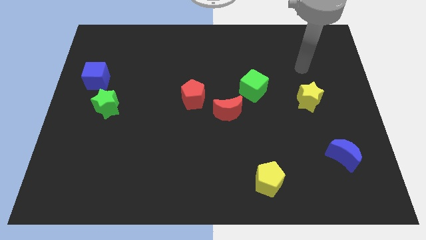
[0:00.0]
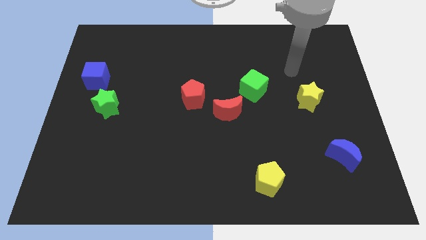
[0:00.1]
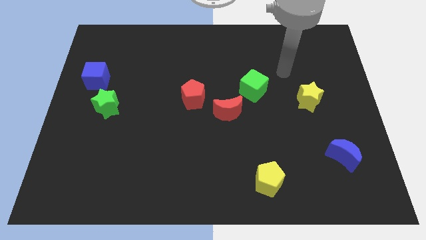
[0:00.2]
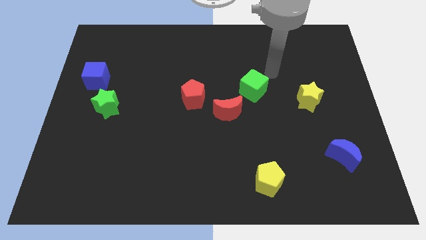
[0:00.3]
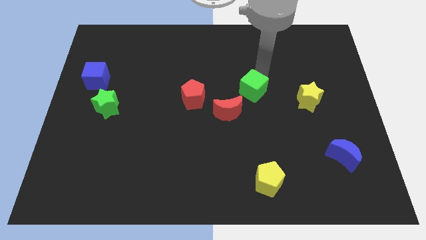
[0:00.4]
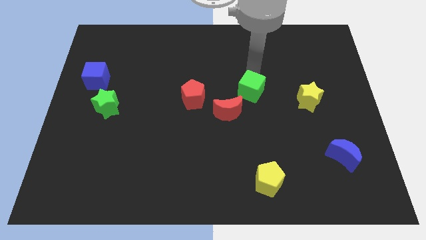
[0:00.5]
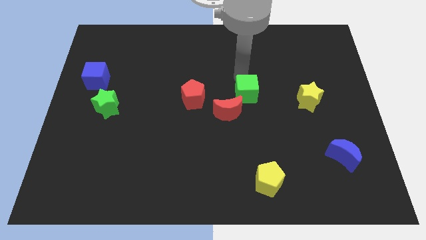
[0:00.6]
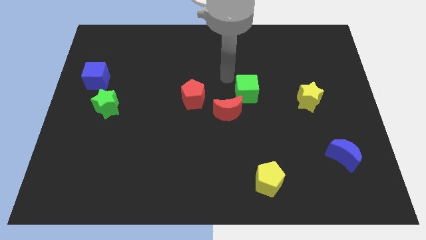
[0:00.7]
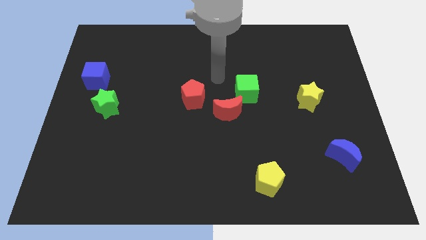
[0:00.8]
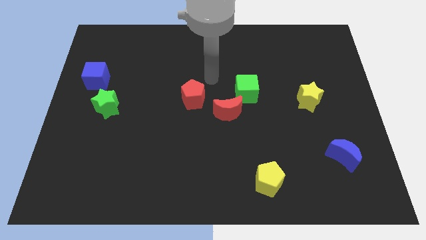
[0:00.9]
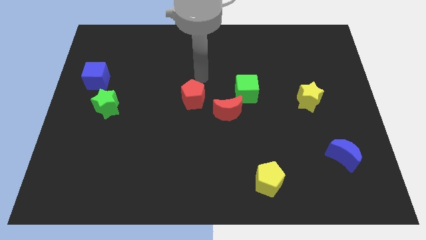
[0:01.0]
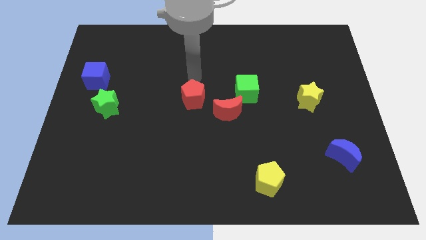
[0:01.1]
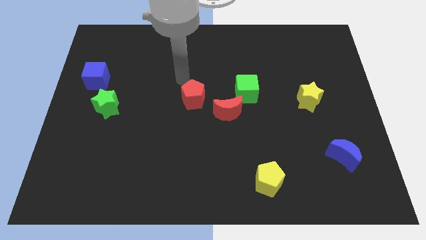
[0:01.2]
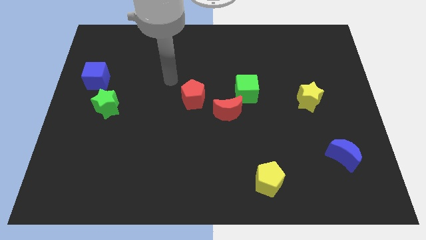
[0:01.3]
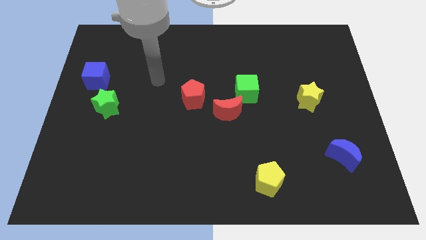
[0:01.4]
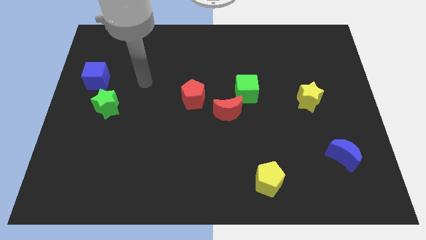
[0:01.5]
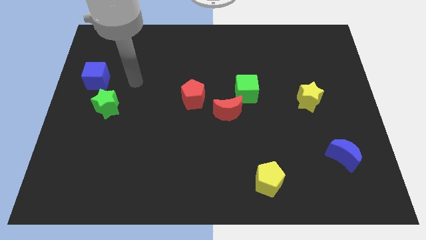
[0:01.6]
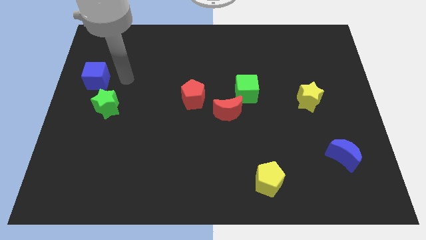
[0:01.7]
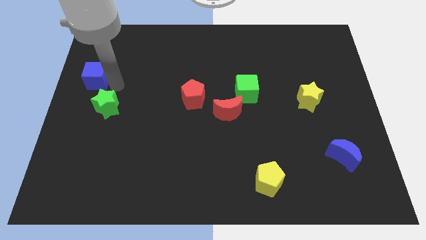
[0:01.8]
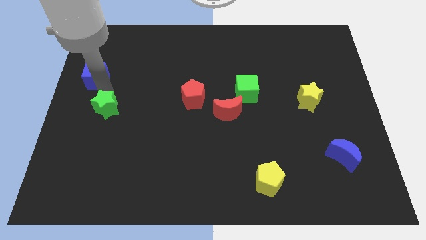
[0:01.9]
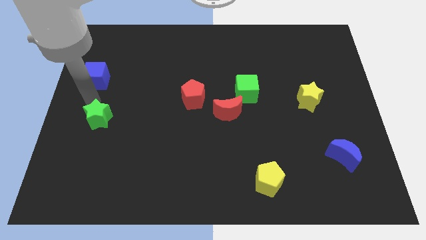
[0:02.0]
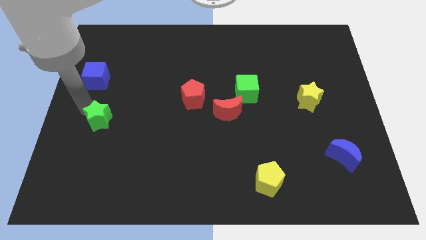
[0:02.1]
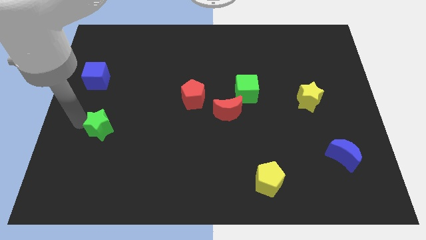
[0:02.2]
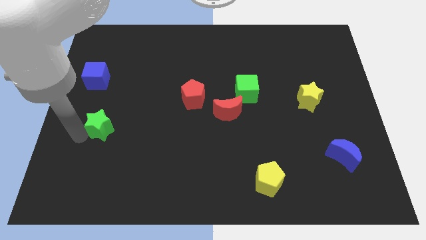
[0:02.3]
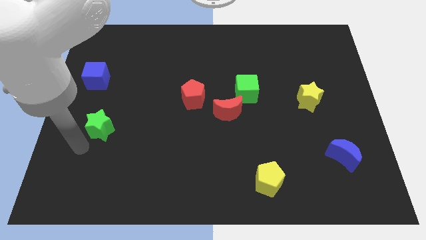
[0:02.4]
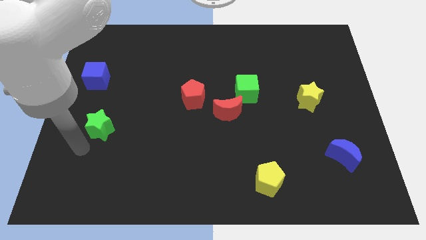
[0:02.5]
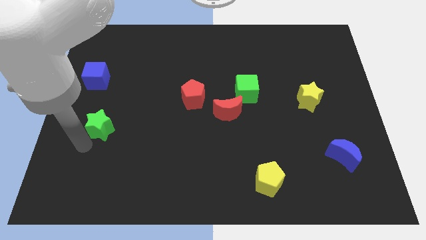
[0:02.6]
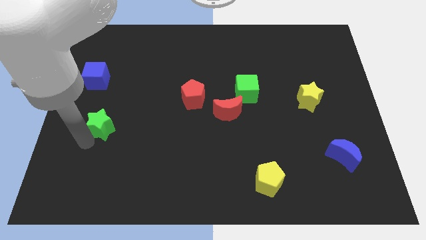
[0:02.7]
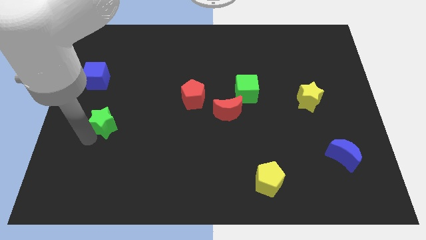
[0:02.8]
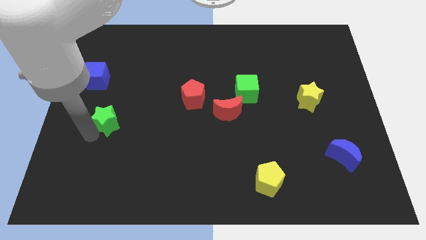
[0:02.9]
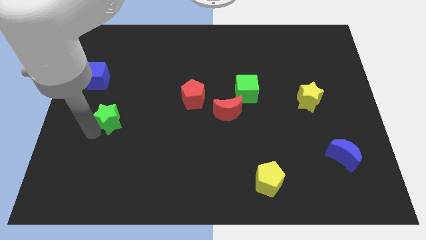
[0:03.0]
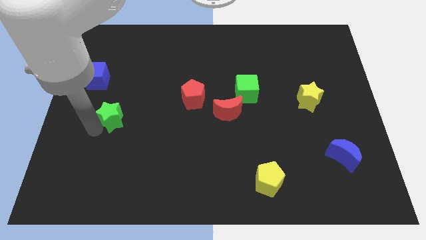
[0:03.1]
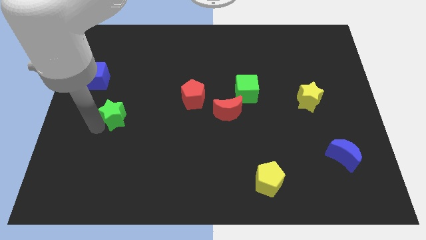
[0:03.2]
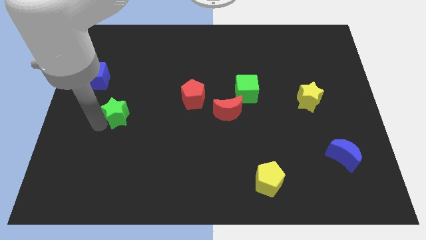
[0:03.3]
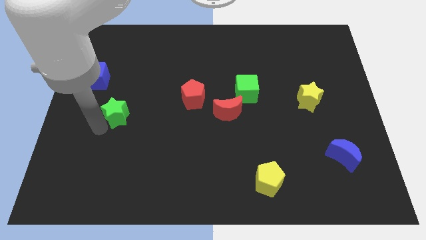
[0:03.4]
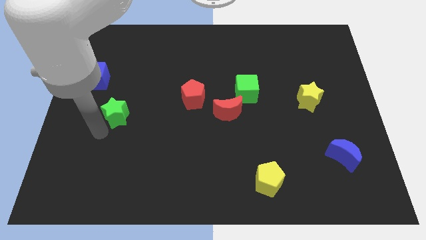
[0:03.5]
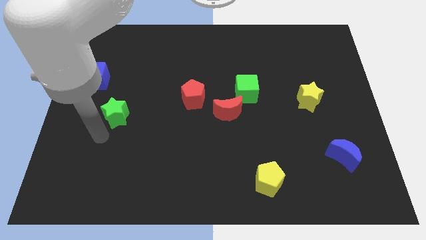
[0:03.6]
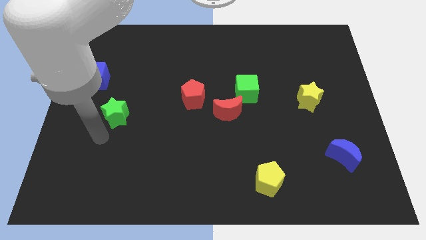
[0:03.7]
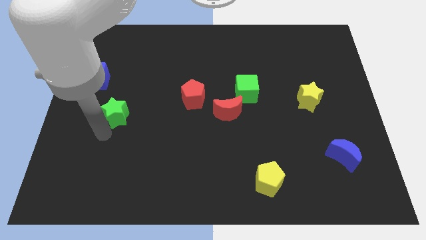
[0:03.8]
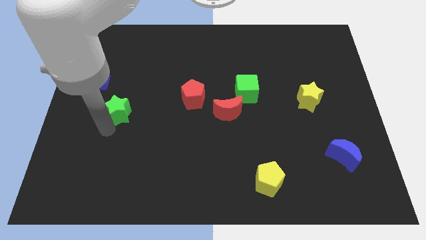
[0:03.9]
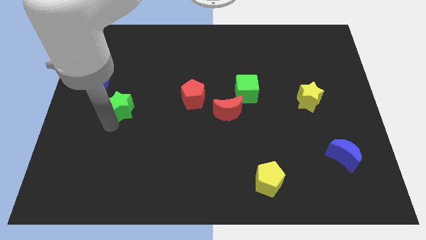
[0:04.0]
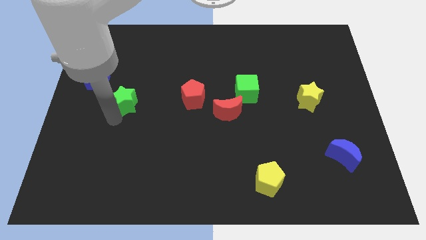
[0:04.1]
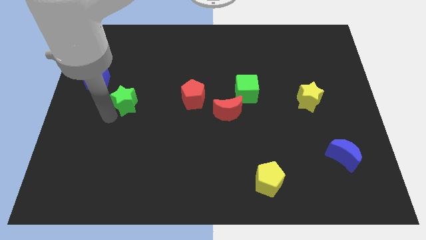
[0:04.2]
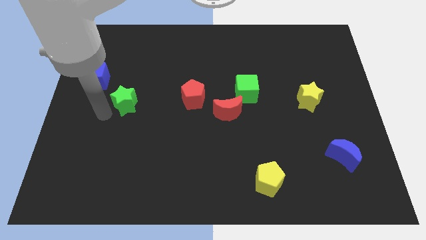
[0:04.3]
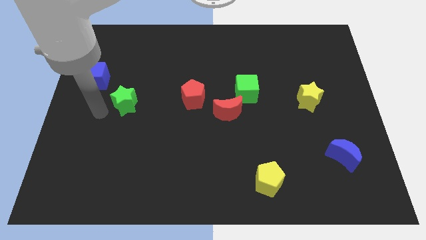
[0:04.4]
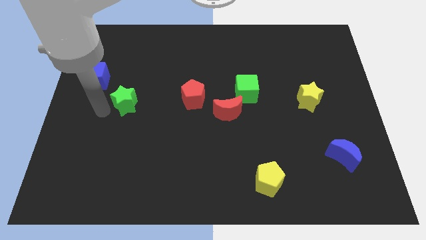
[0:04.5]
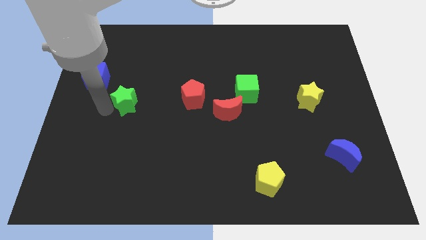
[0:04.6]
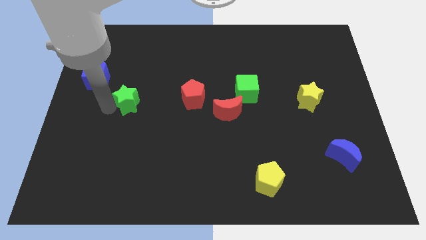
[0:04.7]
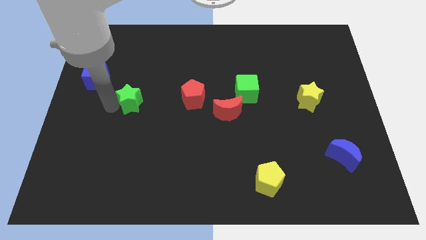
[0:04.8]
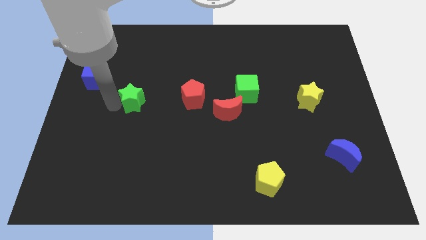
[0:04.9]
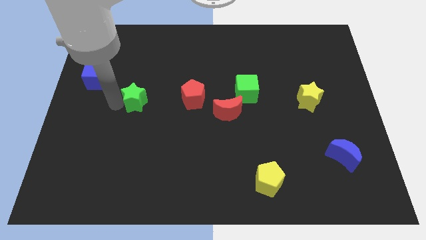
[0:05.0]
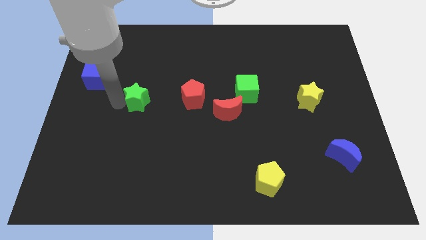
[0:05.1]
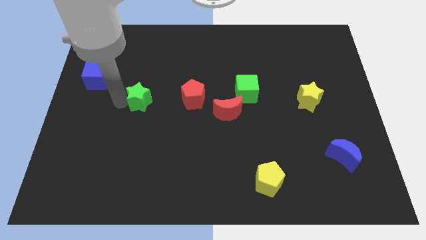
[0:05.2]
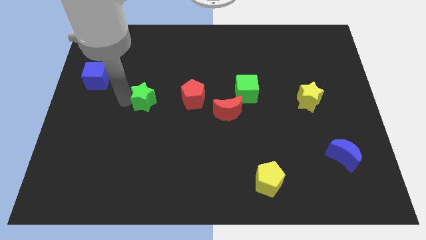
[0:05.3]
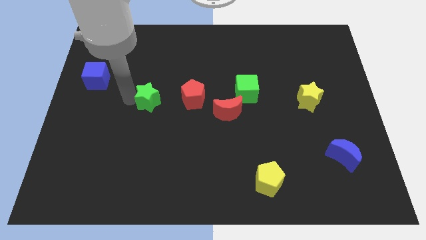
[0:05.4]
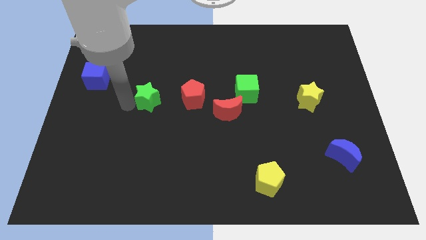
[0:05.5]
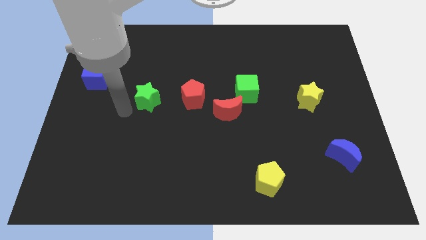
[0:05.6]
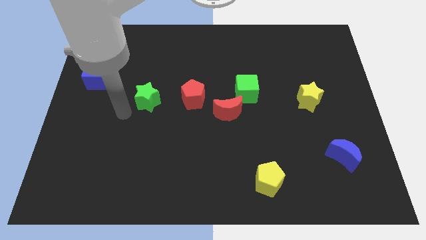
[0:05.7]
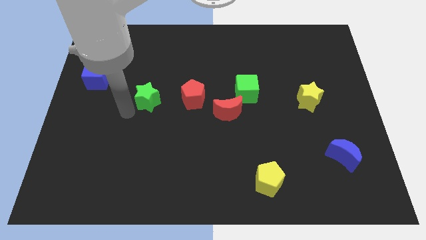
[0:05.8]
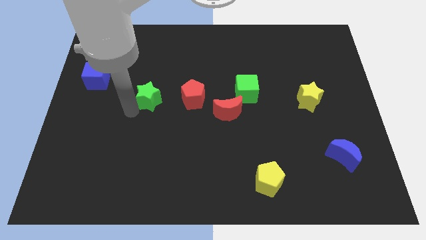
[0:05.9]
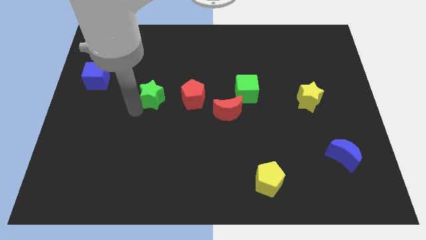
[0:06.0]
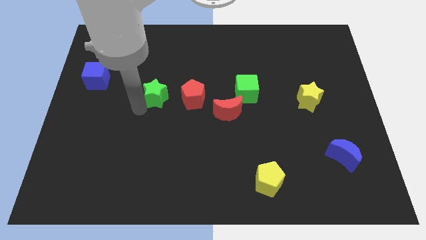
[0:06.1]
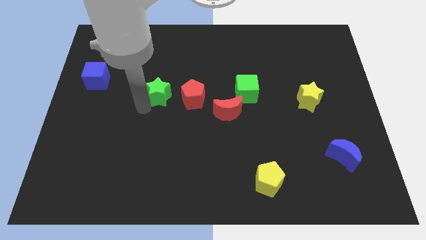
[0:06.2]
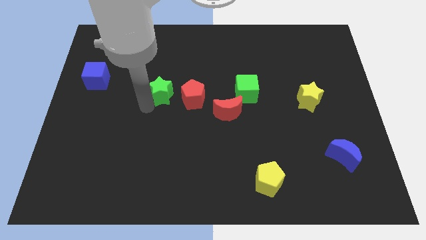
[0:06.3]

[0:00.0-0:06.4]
move the green star to the middle of the board
